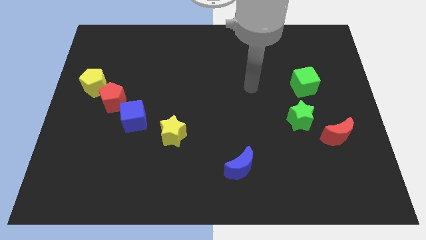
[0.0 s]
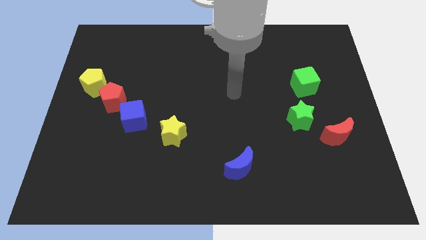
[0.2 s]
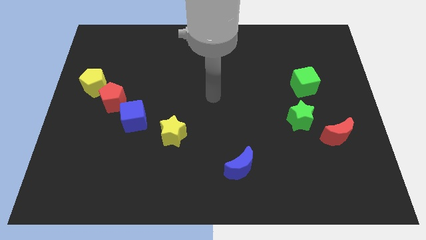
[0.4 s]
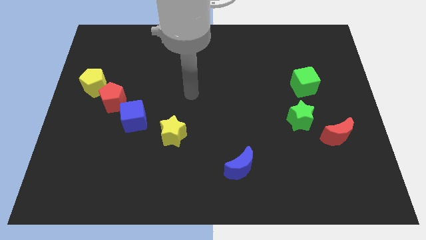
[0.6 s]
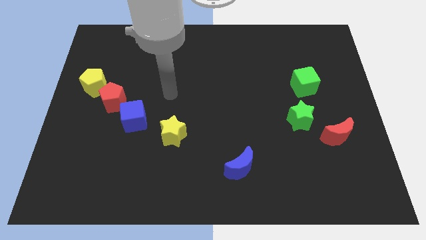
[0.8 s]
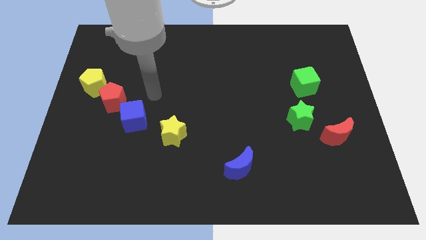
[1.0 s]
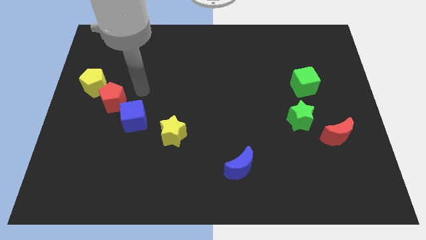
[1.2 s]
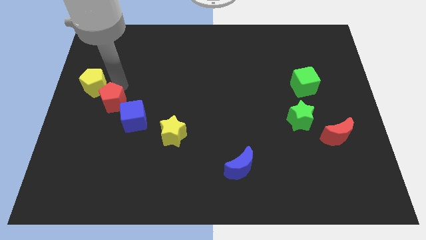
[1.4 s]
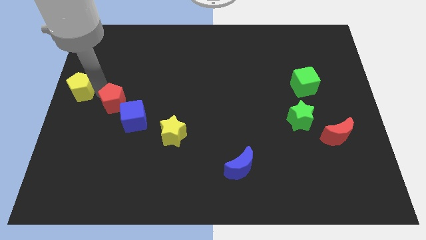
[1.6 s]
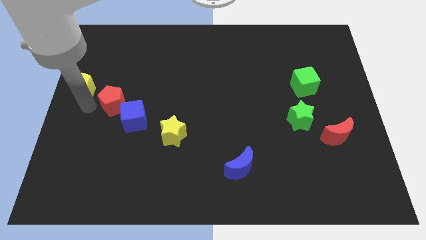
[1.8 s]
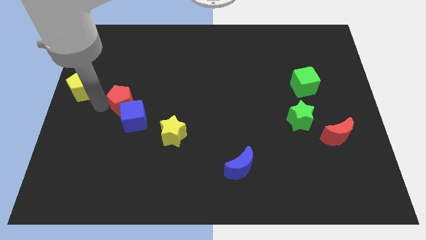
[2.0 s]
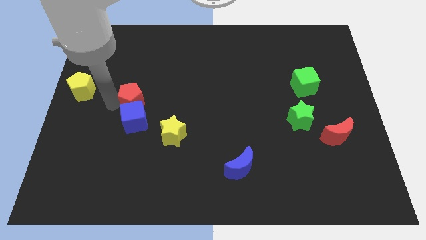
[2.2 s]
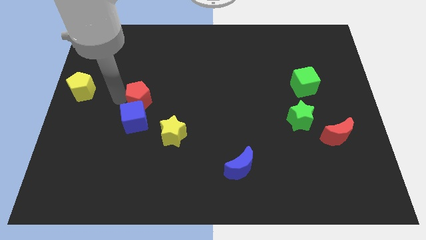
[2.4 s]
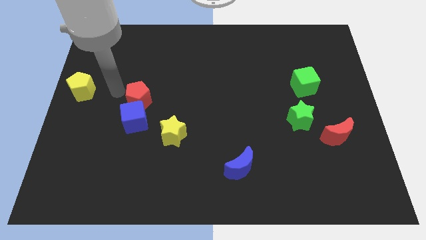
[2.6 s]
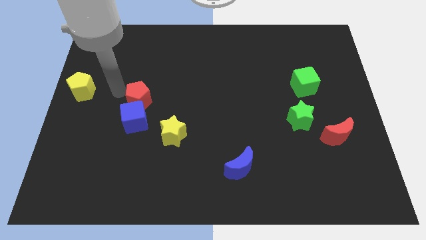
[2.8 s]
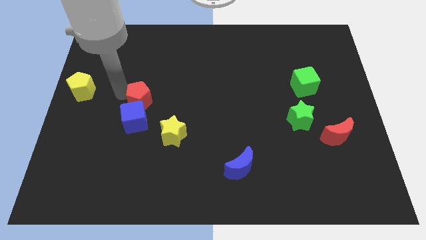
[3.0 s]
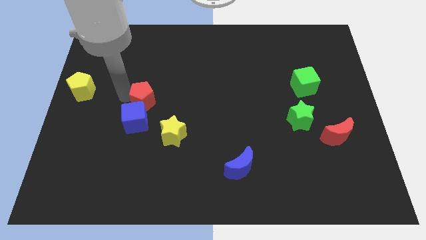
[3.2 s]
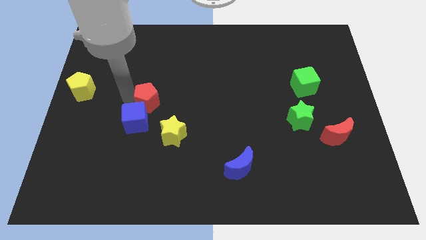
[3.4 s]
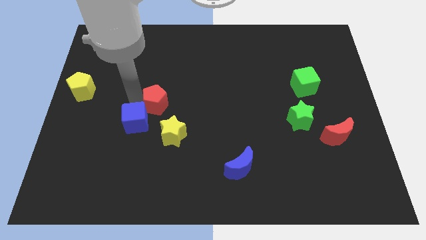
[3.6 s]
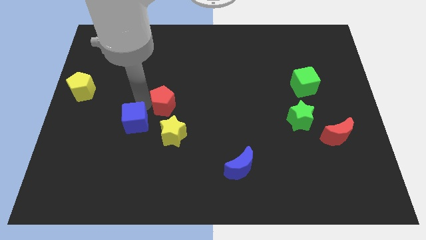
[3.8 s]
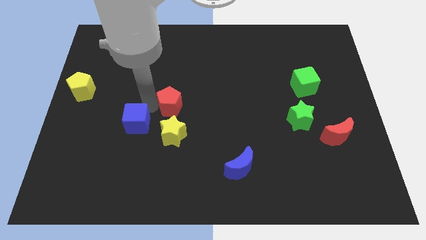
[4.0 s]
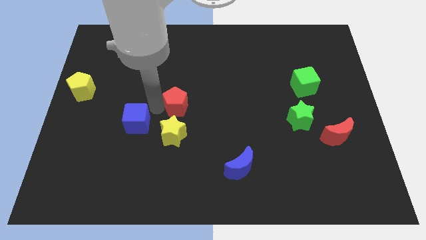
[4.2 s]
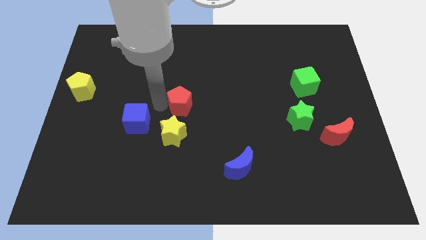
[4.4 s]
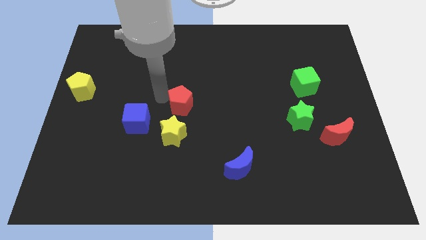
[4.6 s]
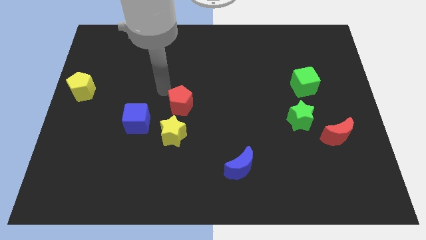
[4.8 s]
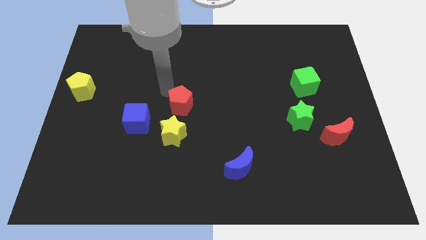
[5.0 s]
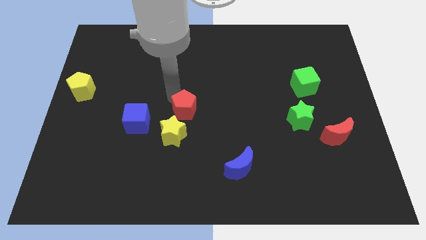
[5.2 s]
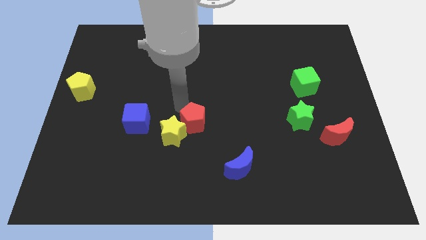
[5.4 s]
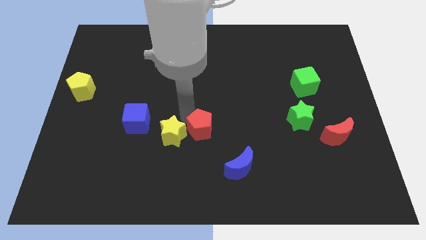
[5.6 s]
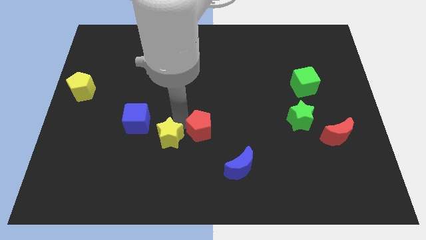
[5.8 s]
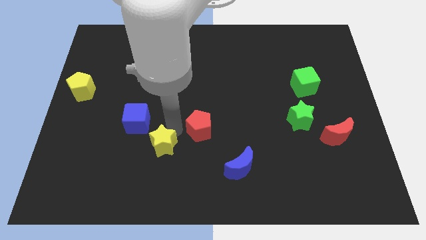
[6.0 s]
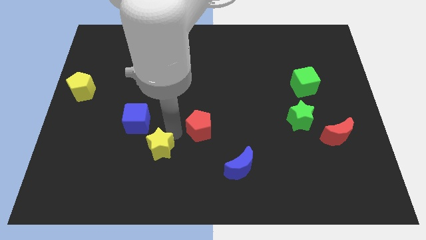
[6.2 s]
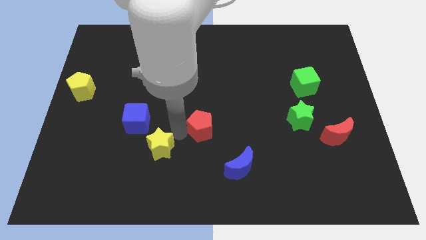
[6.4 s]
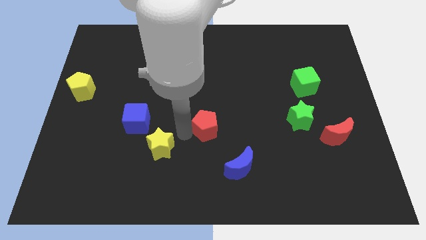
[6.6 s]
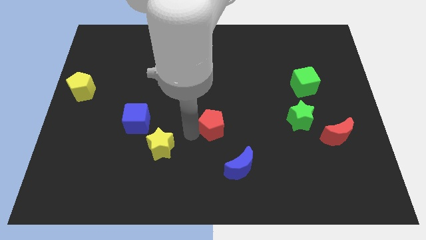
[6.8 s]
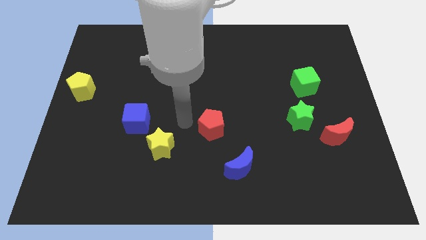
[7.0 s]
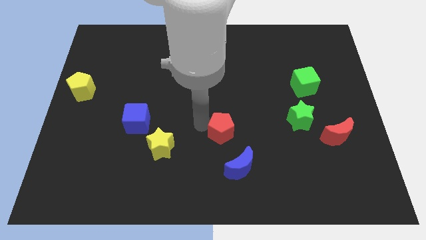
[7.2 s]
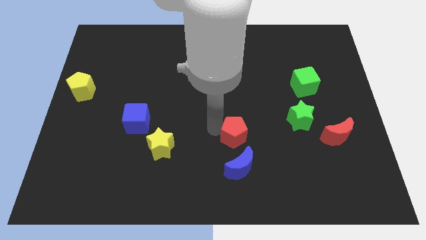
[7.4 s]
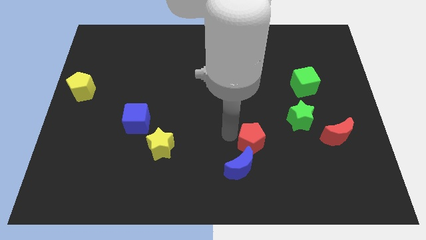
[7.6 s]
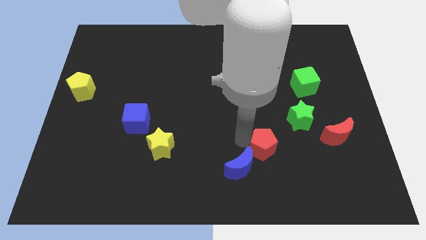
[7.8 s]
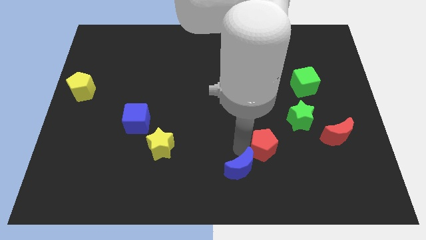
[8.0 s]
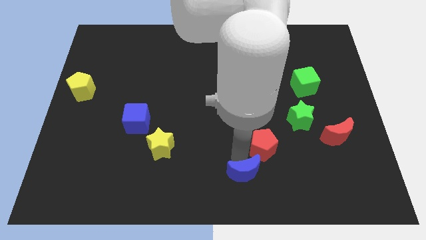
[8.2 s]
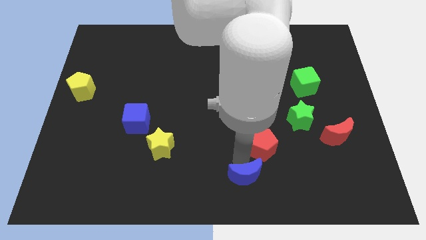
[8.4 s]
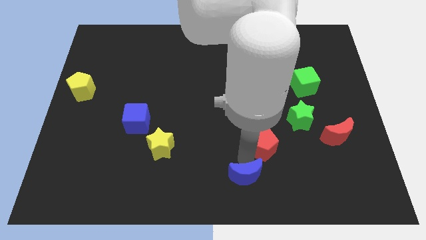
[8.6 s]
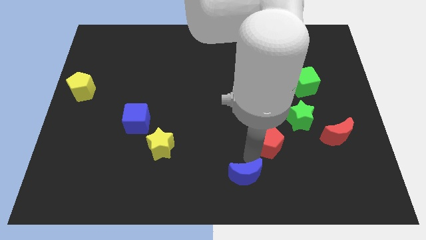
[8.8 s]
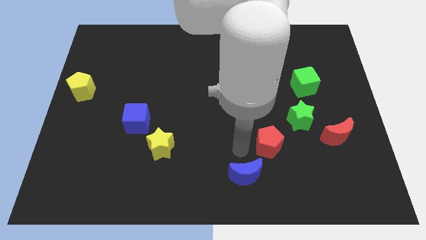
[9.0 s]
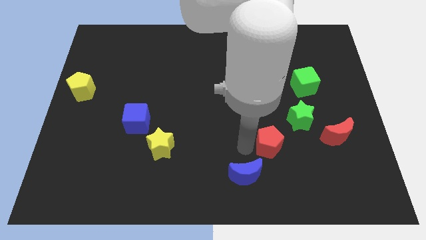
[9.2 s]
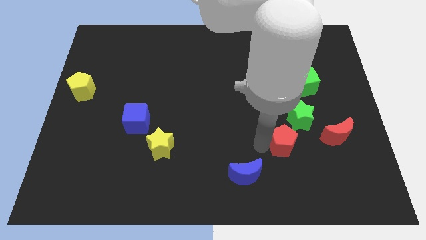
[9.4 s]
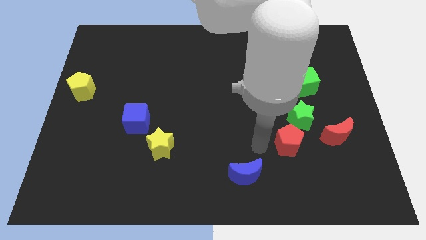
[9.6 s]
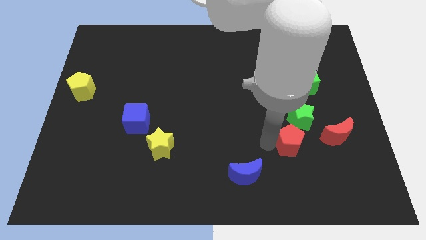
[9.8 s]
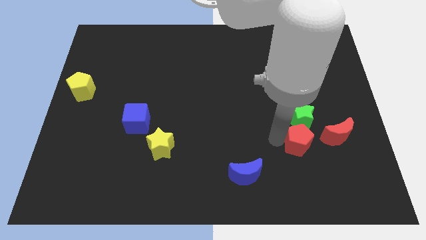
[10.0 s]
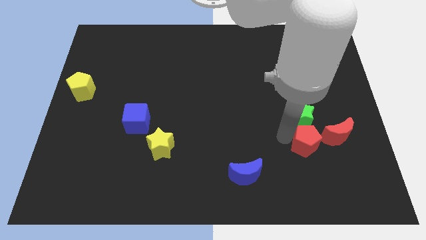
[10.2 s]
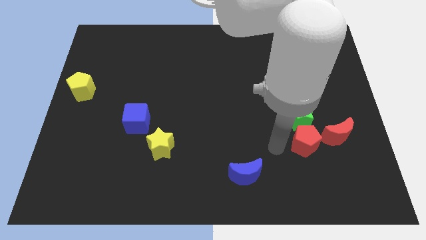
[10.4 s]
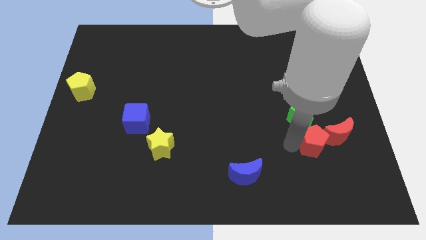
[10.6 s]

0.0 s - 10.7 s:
push the red pentagon towards the red moon

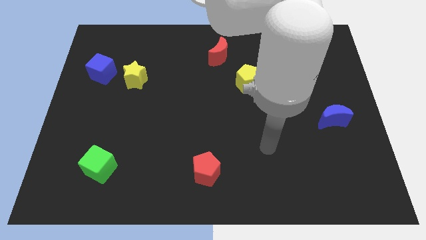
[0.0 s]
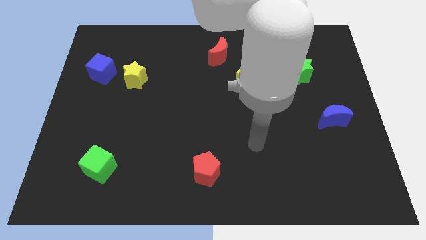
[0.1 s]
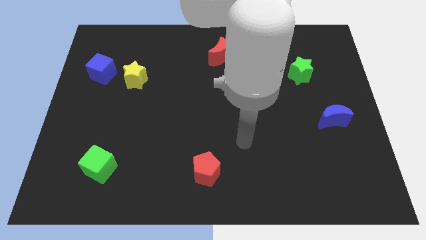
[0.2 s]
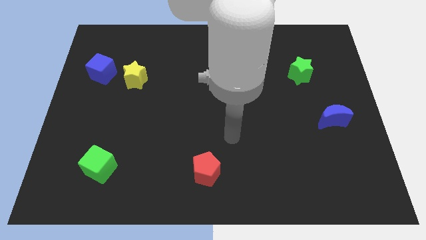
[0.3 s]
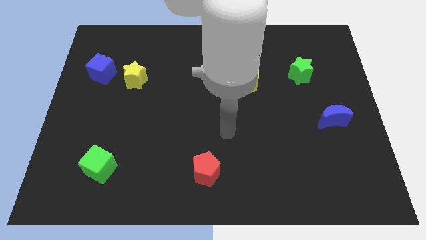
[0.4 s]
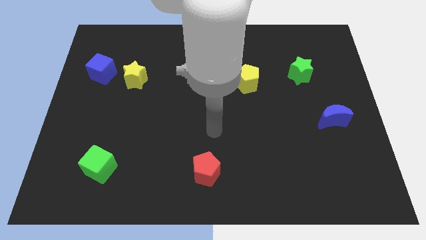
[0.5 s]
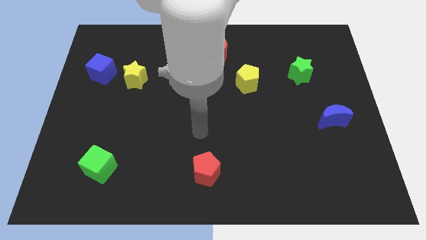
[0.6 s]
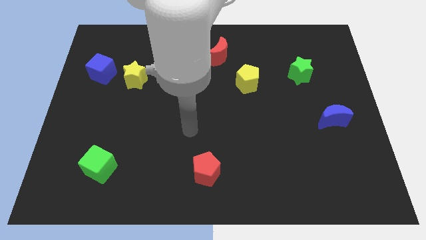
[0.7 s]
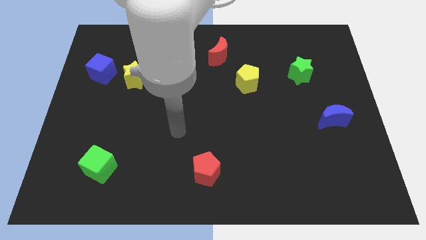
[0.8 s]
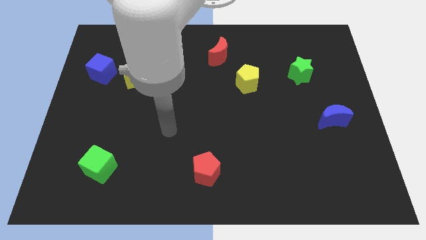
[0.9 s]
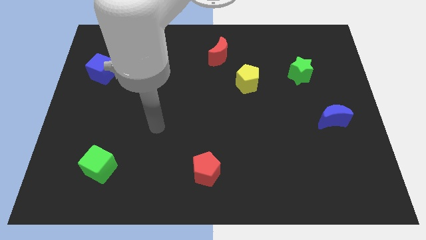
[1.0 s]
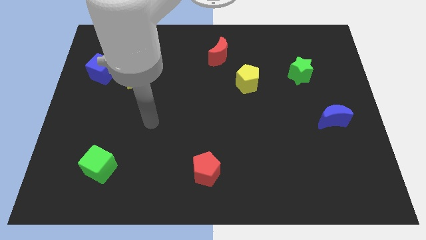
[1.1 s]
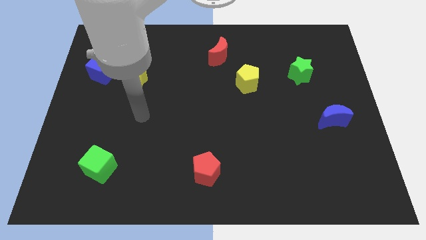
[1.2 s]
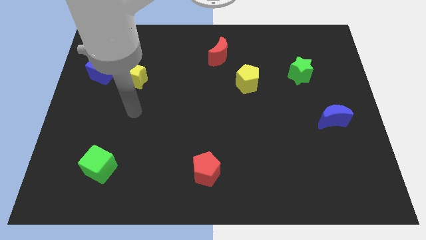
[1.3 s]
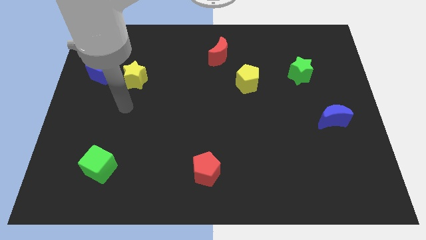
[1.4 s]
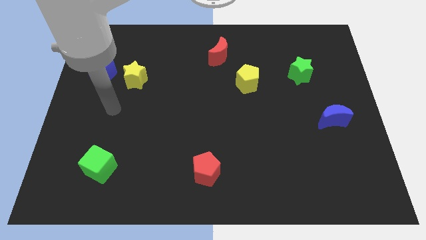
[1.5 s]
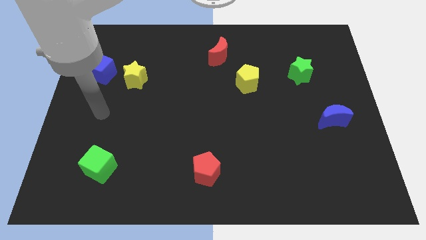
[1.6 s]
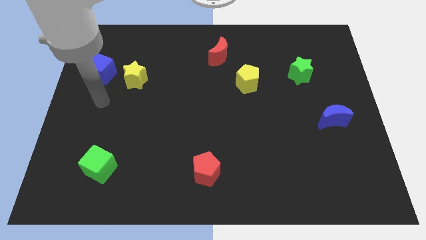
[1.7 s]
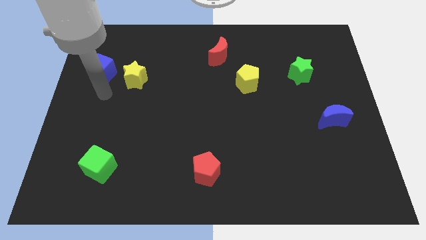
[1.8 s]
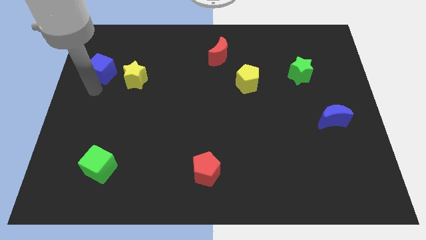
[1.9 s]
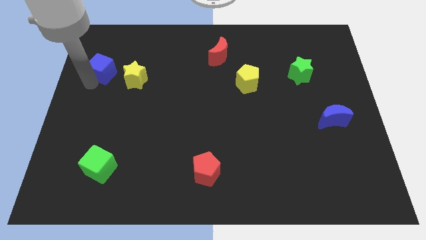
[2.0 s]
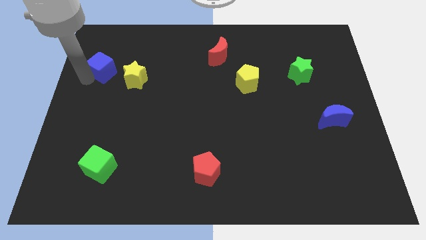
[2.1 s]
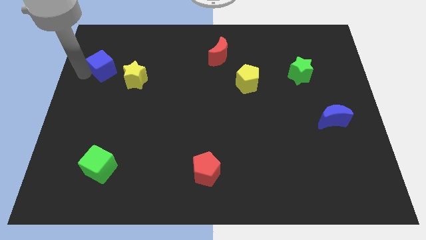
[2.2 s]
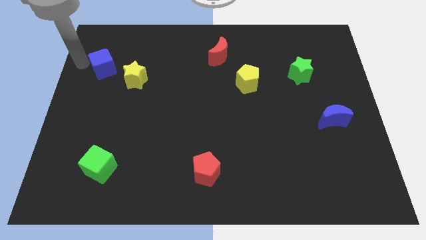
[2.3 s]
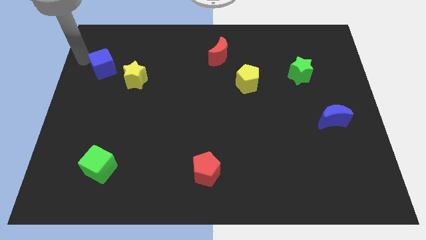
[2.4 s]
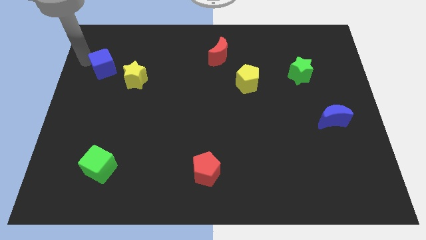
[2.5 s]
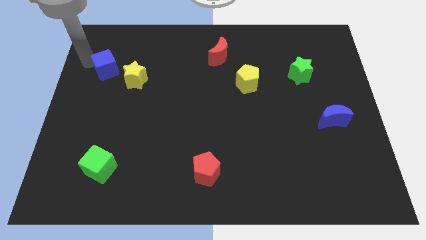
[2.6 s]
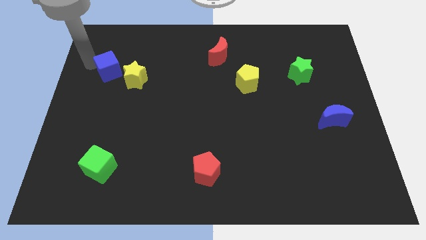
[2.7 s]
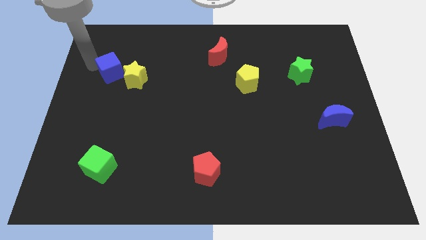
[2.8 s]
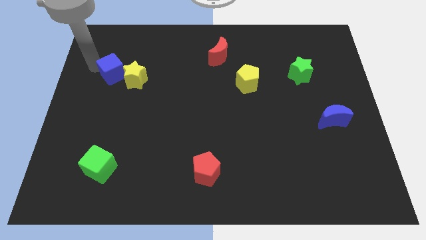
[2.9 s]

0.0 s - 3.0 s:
push the blue cube towards the yellow star

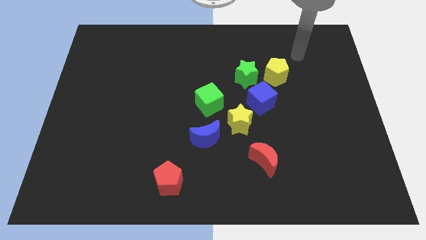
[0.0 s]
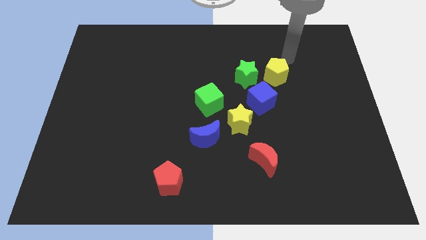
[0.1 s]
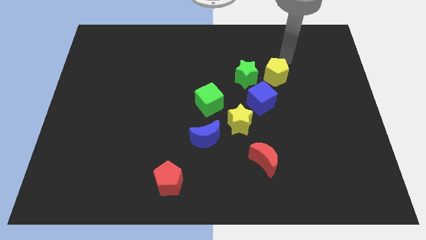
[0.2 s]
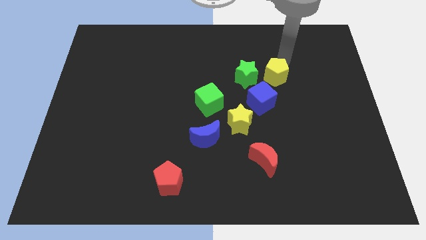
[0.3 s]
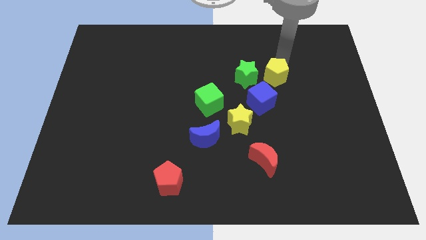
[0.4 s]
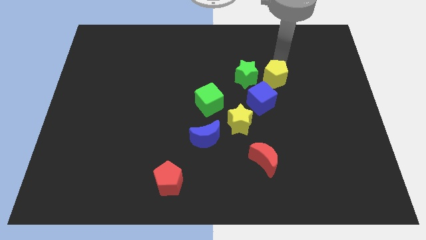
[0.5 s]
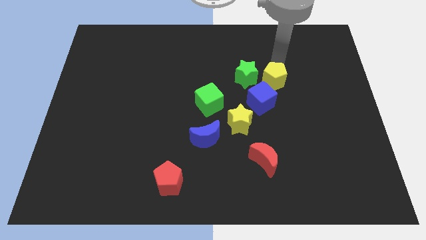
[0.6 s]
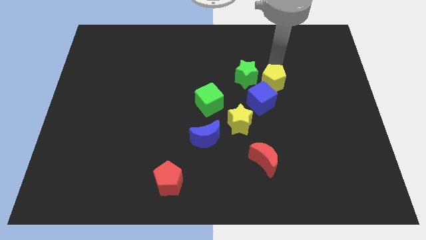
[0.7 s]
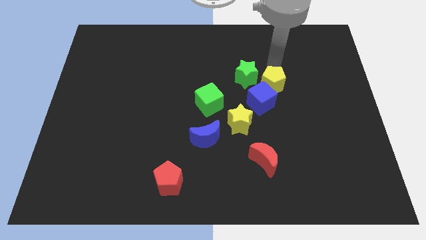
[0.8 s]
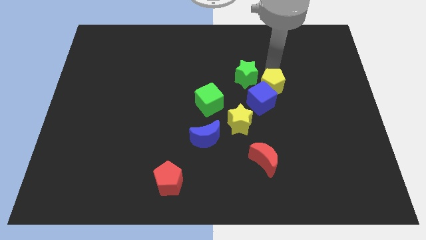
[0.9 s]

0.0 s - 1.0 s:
move the yellow pentagon next to the blue cube
